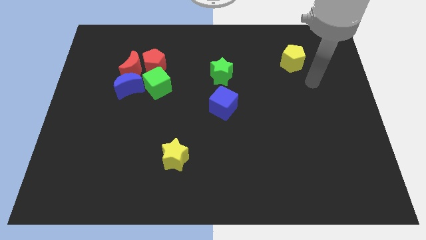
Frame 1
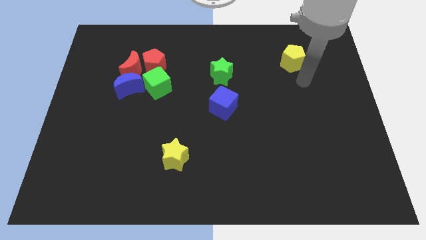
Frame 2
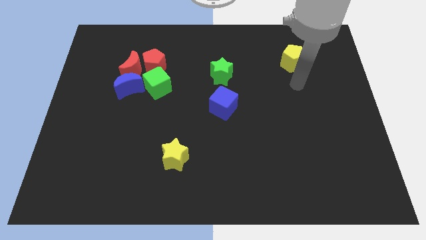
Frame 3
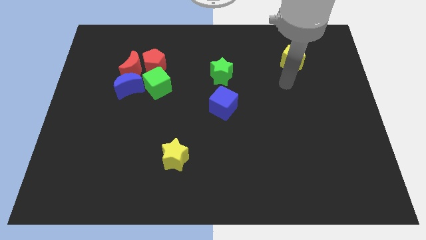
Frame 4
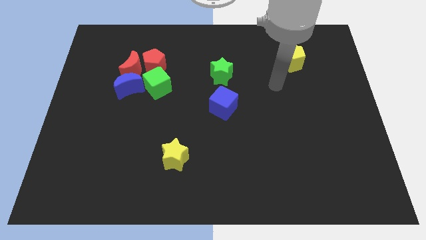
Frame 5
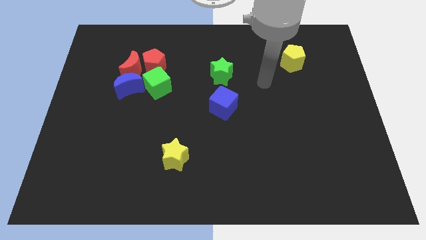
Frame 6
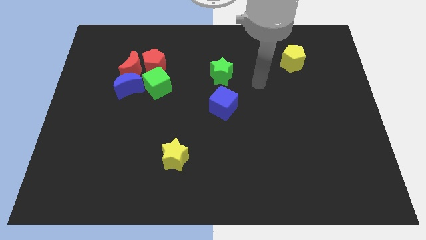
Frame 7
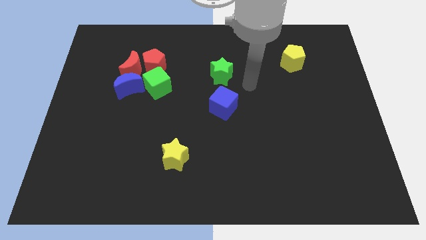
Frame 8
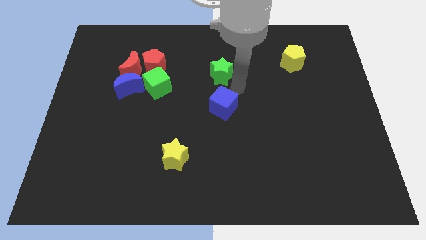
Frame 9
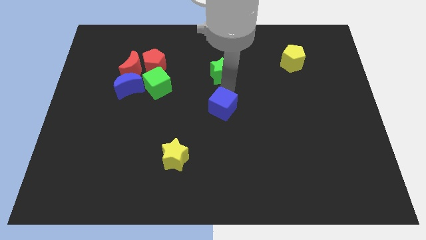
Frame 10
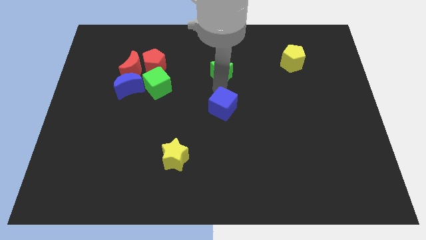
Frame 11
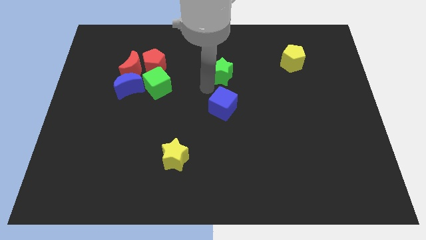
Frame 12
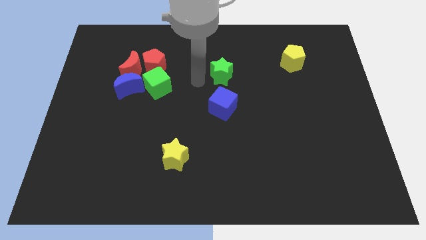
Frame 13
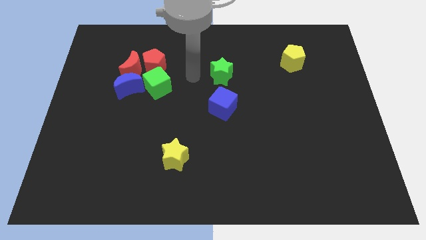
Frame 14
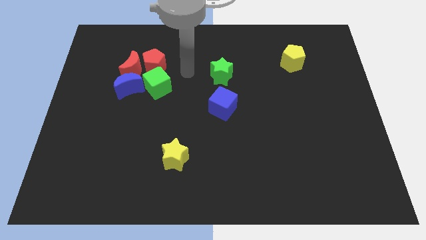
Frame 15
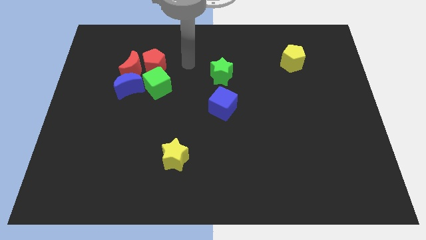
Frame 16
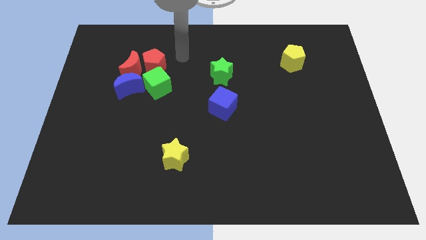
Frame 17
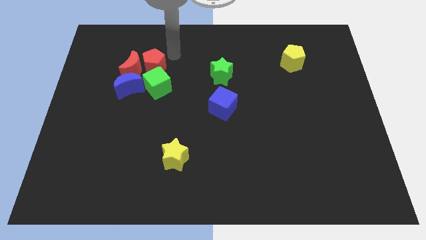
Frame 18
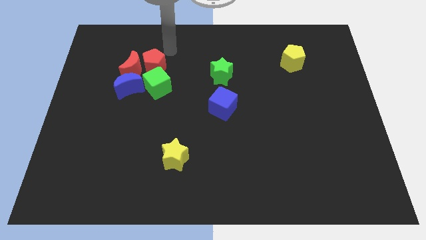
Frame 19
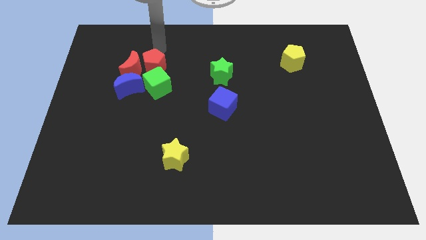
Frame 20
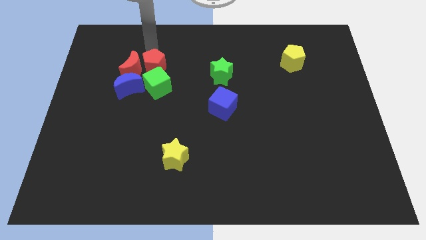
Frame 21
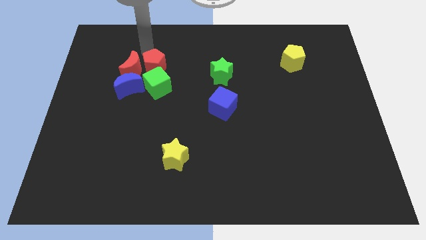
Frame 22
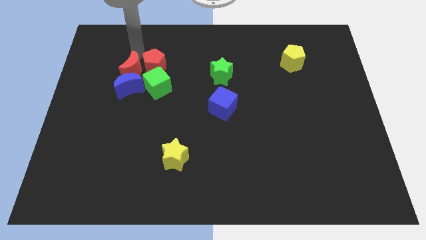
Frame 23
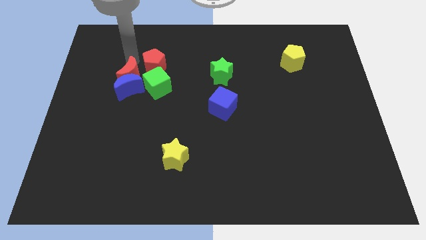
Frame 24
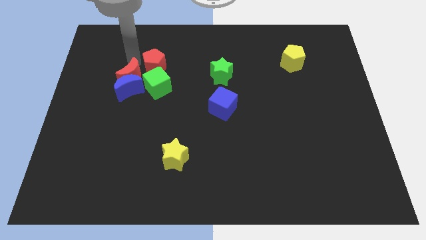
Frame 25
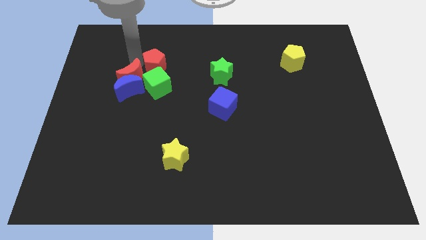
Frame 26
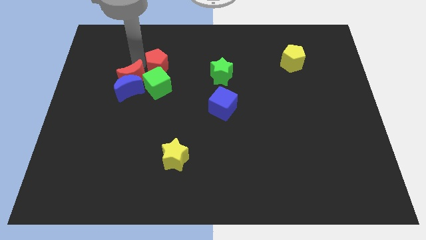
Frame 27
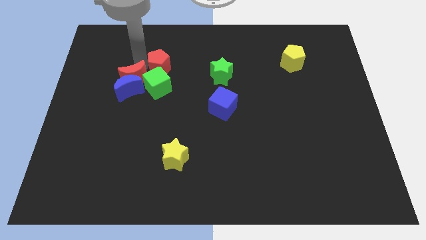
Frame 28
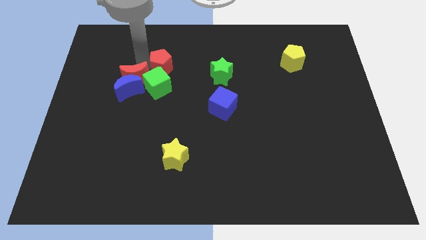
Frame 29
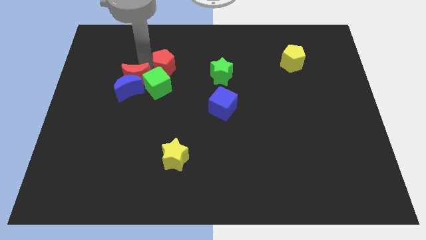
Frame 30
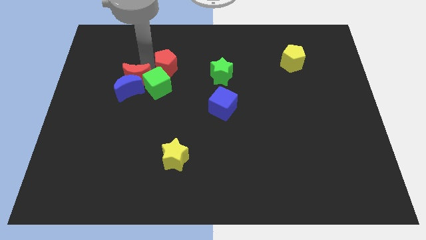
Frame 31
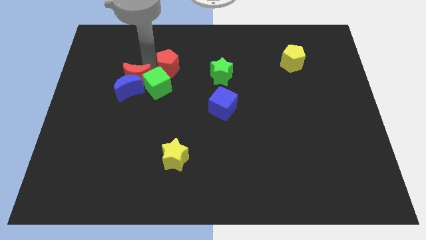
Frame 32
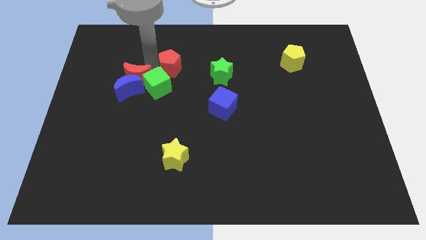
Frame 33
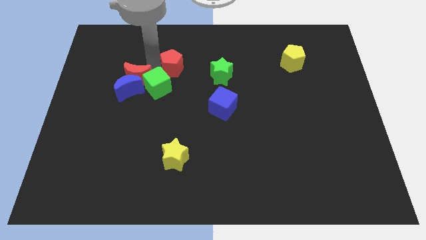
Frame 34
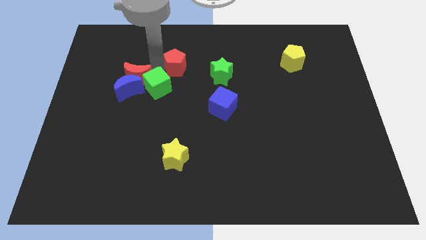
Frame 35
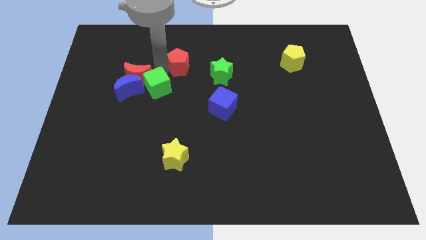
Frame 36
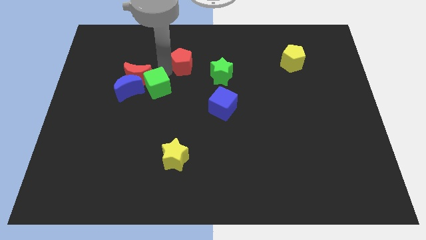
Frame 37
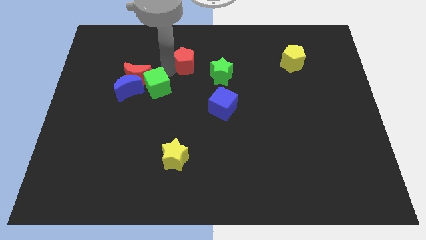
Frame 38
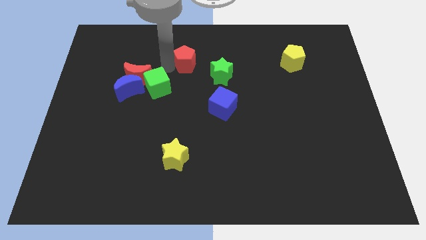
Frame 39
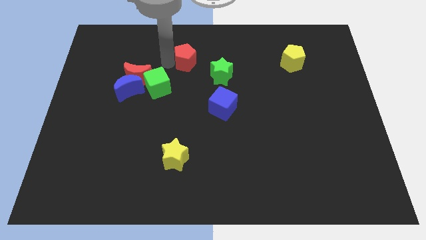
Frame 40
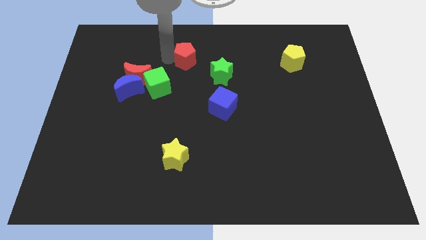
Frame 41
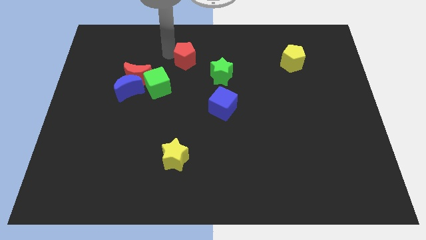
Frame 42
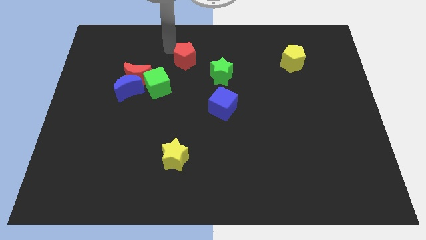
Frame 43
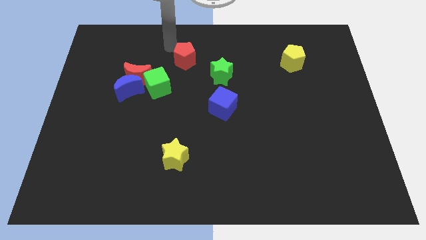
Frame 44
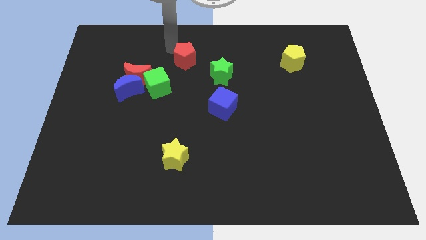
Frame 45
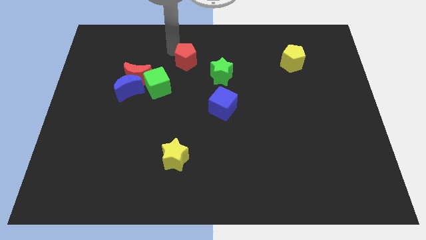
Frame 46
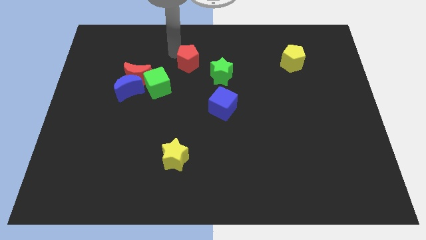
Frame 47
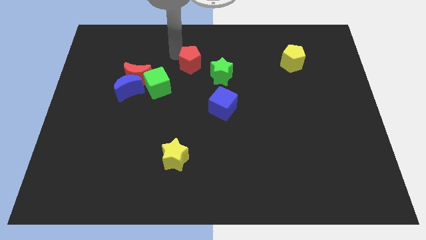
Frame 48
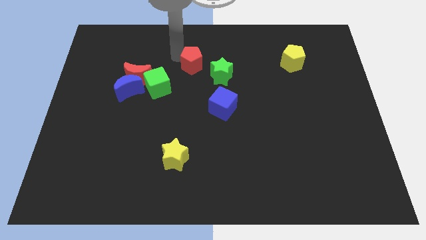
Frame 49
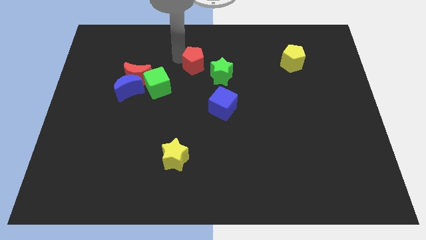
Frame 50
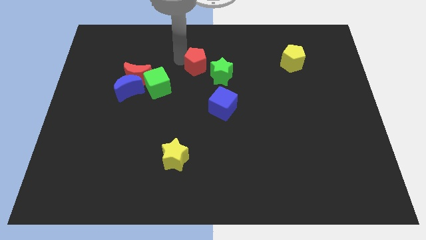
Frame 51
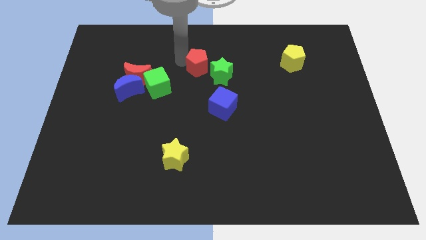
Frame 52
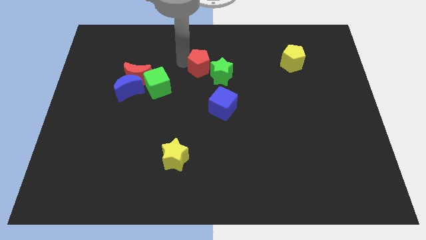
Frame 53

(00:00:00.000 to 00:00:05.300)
move the red pentagon towards the green star

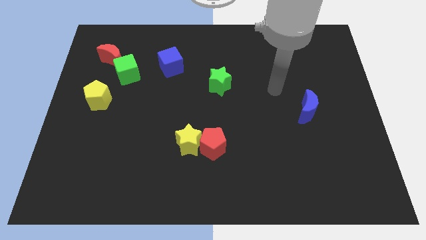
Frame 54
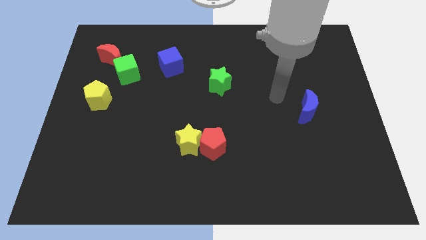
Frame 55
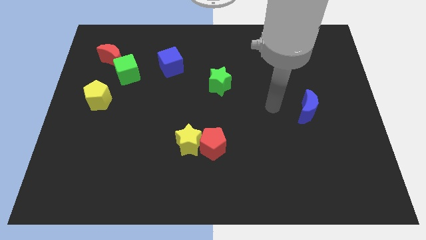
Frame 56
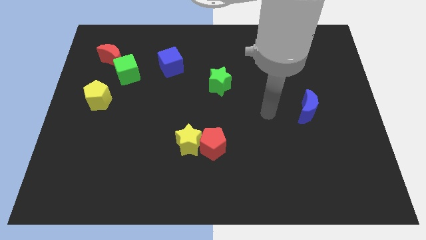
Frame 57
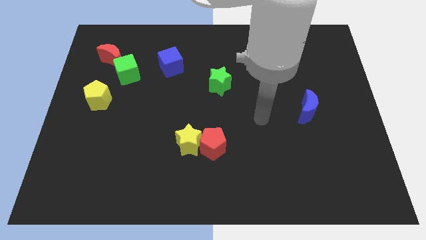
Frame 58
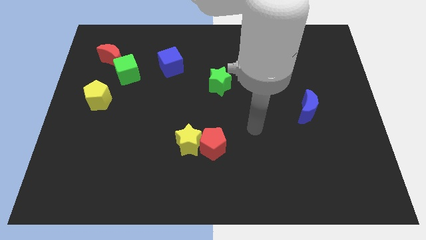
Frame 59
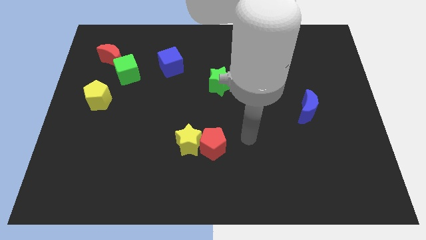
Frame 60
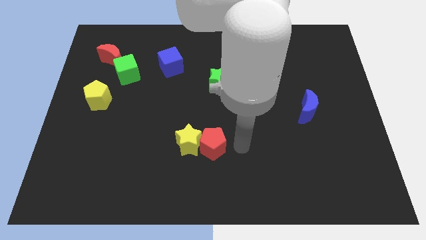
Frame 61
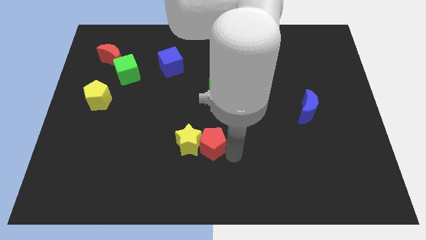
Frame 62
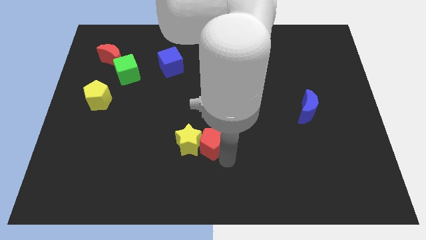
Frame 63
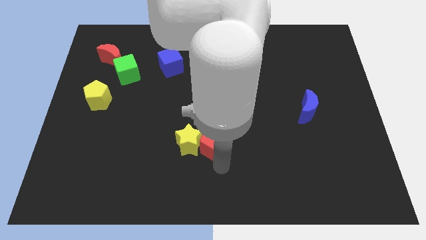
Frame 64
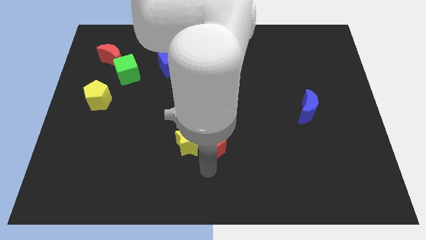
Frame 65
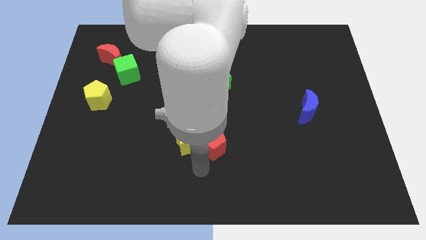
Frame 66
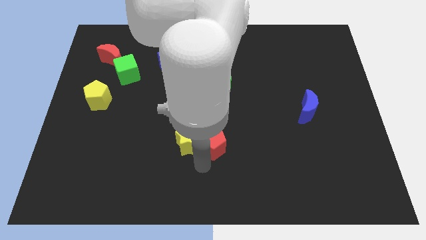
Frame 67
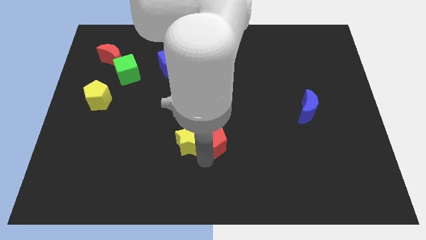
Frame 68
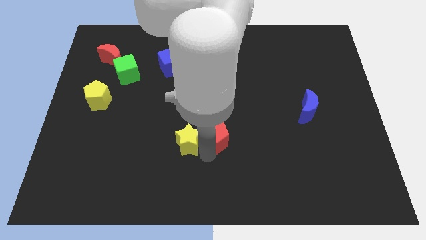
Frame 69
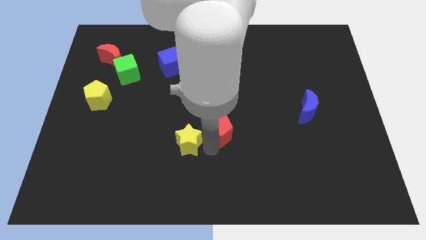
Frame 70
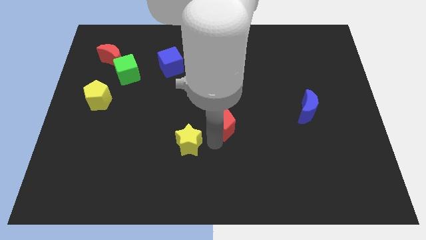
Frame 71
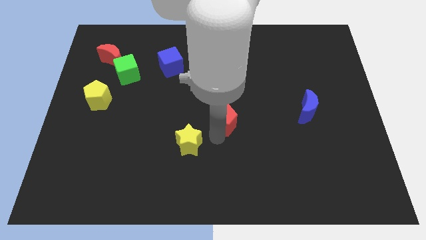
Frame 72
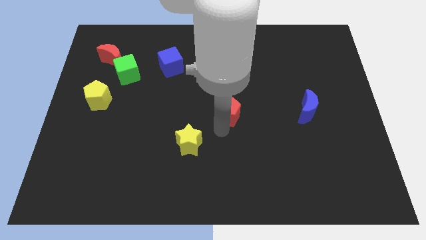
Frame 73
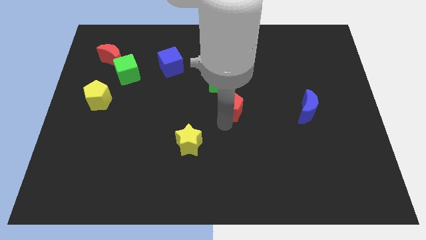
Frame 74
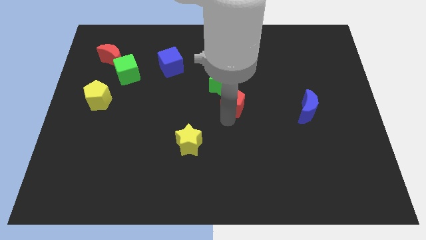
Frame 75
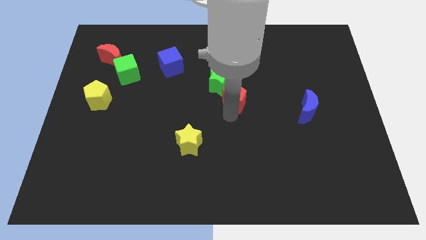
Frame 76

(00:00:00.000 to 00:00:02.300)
put the red pentagon towards the green star

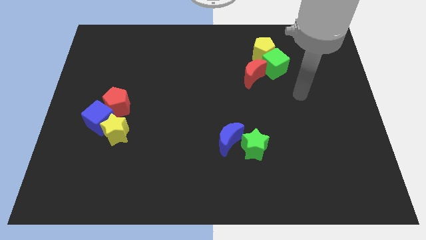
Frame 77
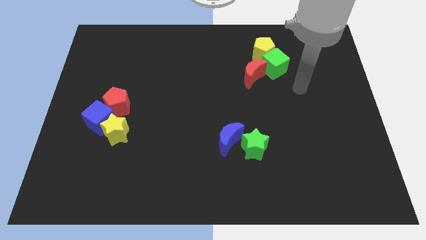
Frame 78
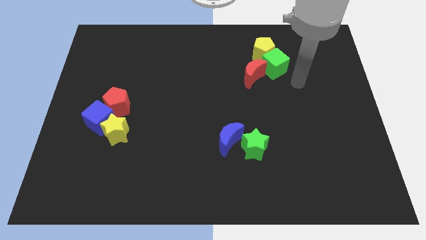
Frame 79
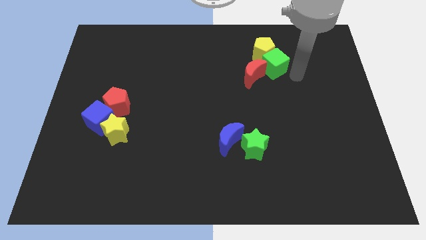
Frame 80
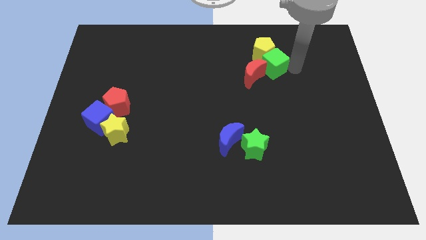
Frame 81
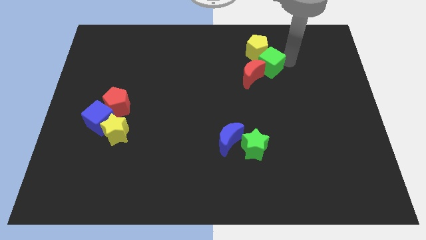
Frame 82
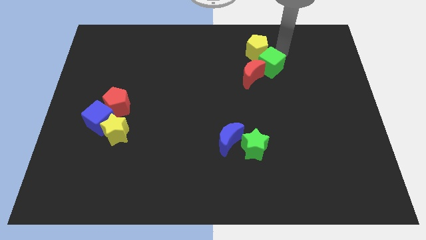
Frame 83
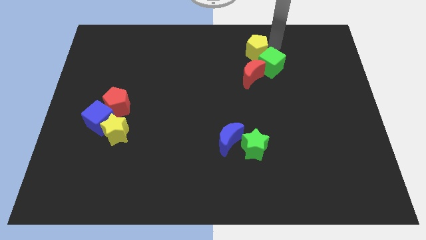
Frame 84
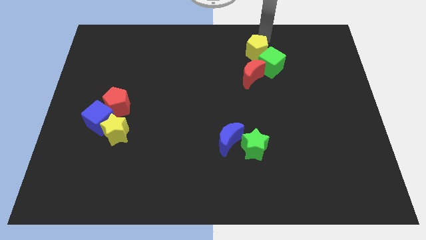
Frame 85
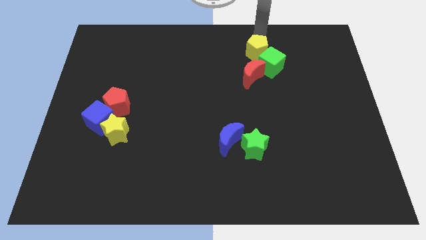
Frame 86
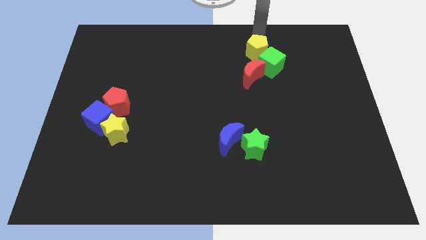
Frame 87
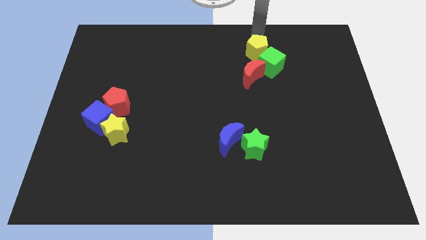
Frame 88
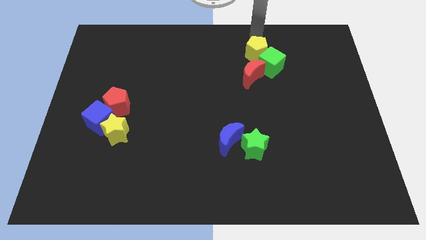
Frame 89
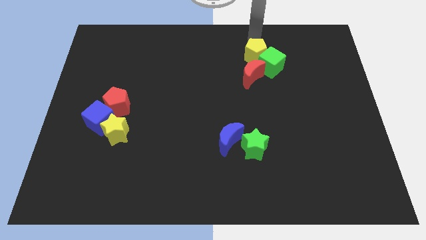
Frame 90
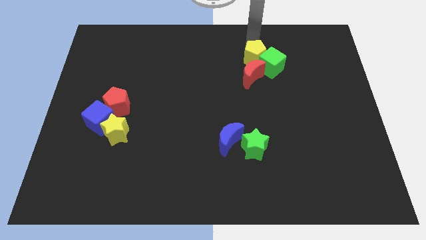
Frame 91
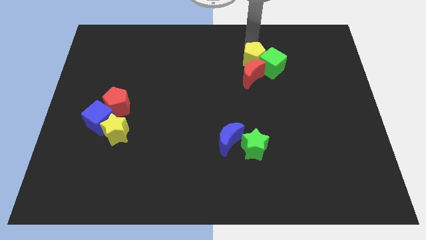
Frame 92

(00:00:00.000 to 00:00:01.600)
move the yellow pentagon towards the red moon
